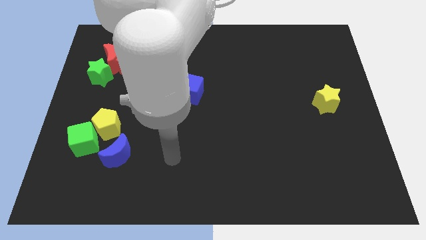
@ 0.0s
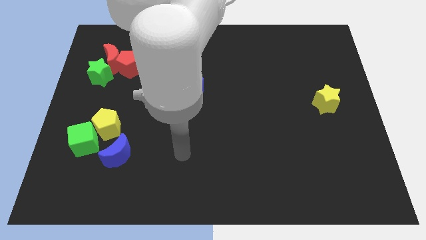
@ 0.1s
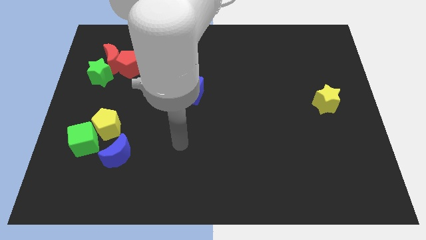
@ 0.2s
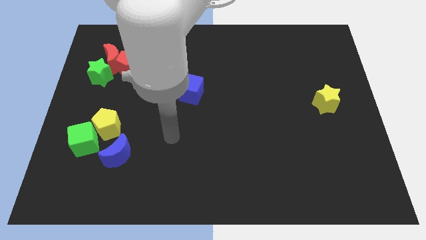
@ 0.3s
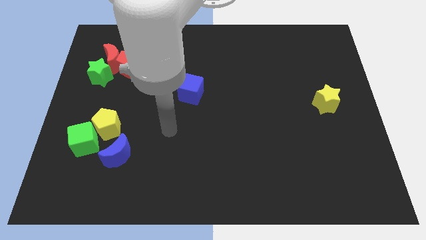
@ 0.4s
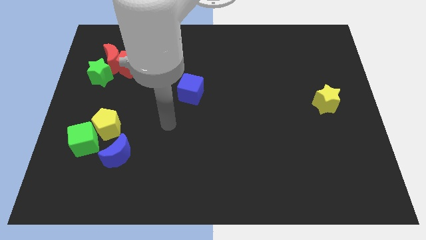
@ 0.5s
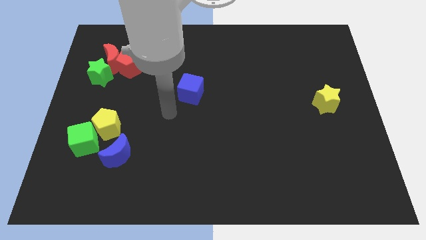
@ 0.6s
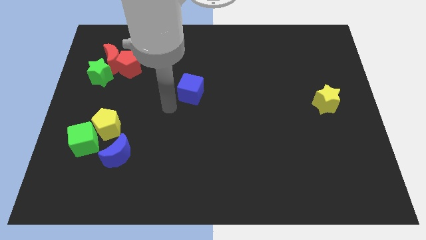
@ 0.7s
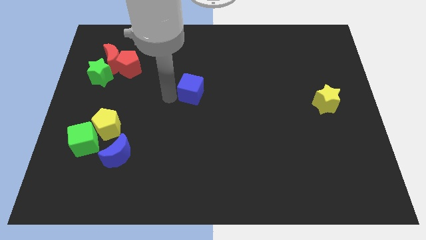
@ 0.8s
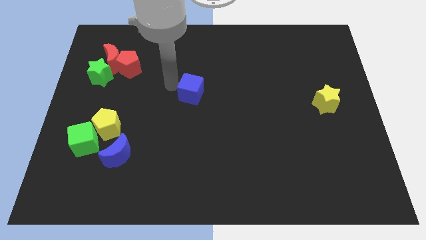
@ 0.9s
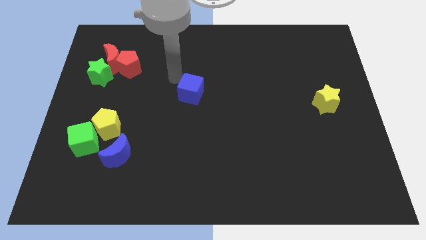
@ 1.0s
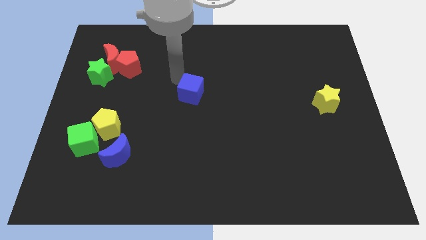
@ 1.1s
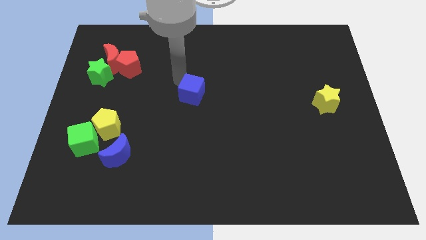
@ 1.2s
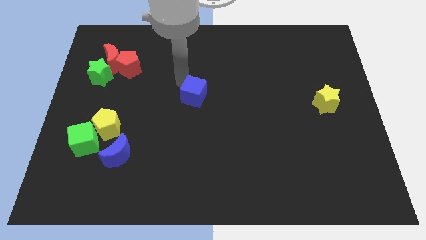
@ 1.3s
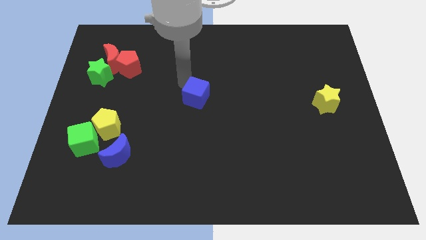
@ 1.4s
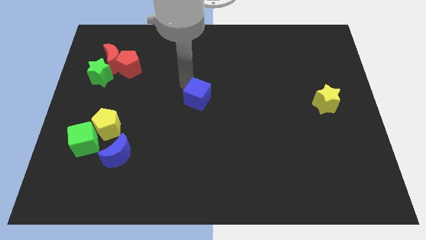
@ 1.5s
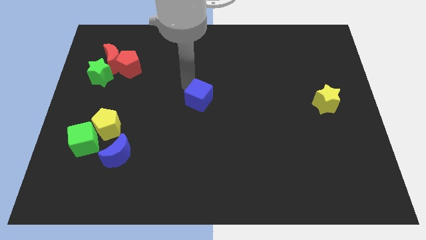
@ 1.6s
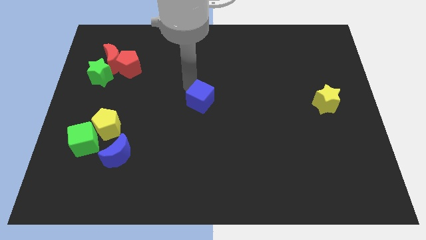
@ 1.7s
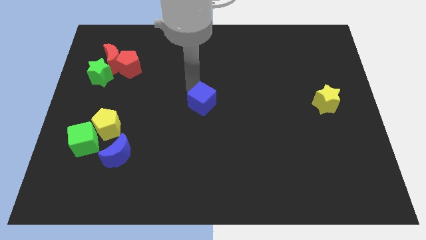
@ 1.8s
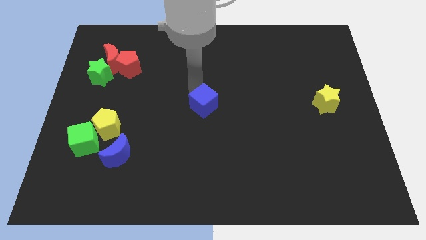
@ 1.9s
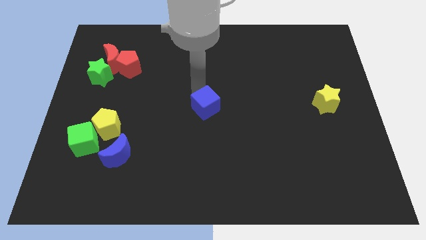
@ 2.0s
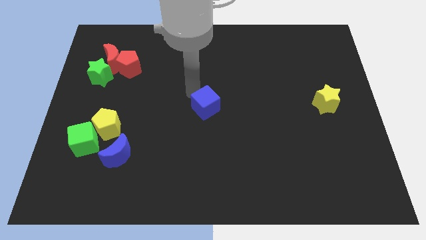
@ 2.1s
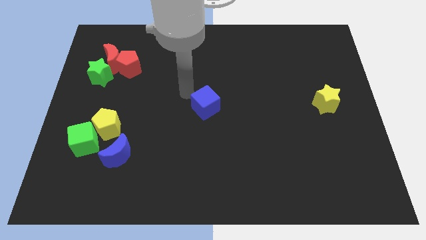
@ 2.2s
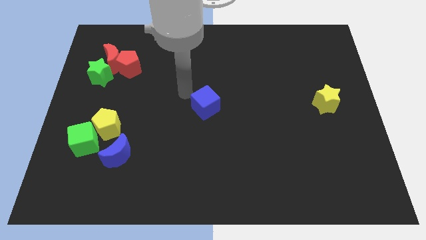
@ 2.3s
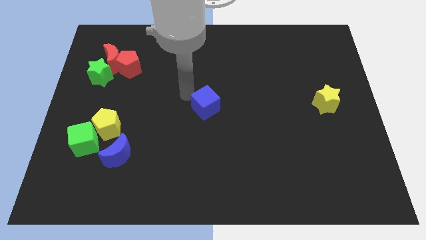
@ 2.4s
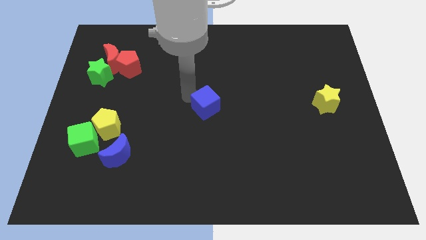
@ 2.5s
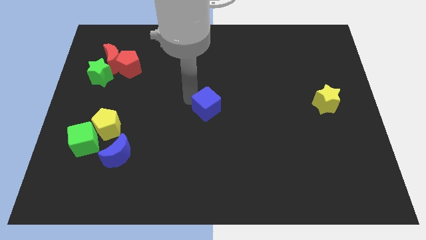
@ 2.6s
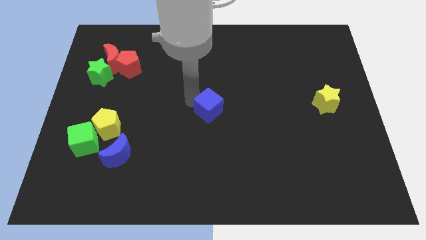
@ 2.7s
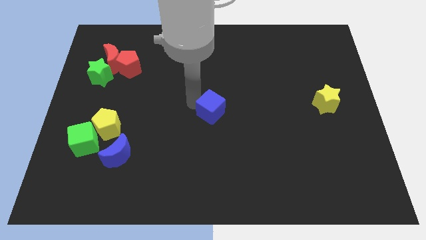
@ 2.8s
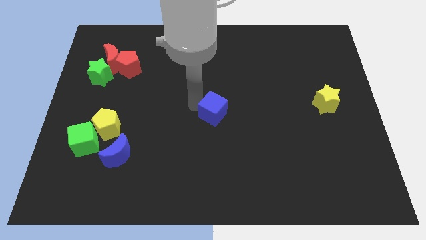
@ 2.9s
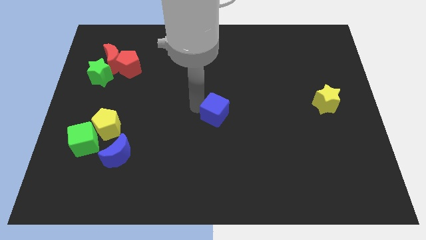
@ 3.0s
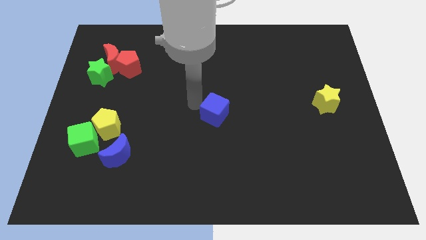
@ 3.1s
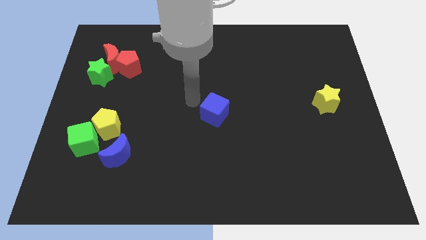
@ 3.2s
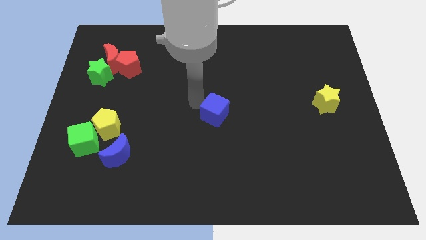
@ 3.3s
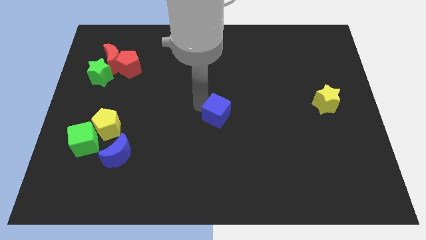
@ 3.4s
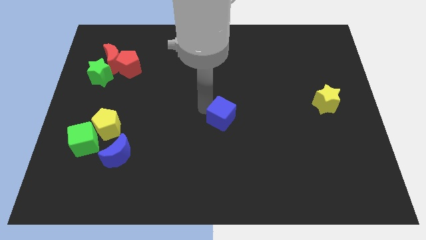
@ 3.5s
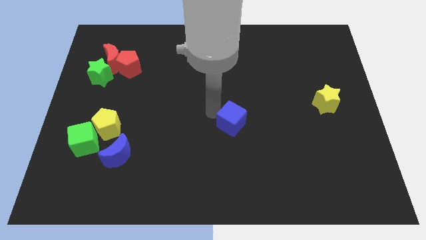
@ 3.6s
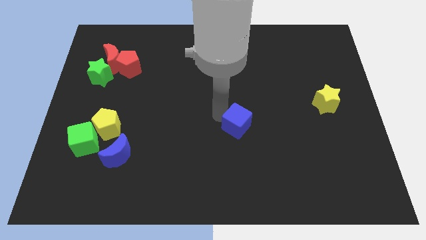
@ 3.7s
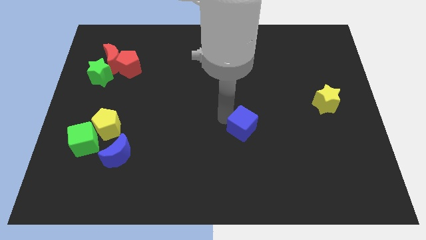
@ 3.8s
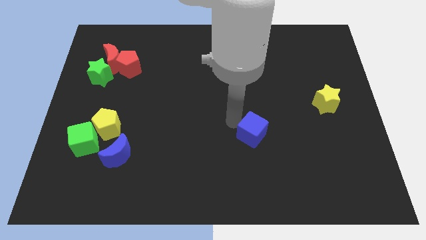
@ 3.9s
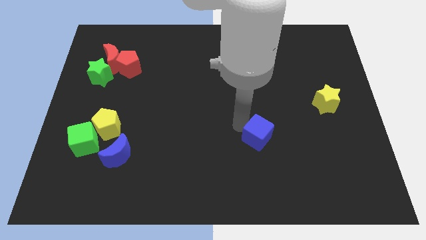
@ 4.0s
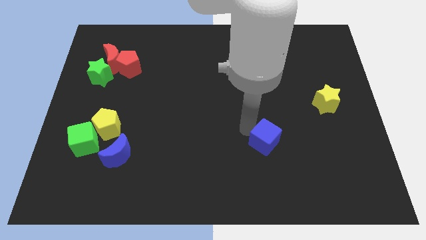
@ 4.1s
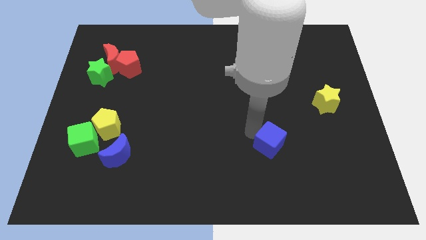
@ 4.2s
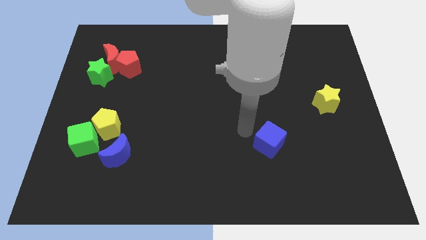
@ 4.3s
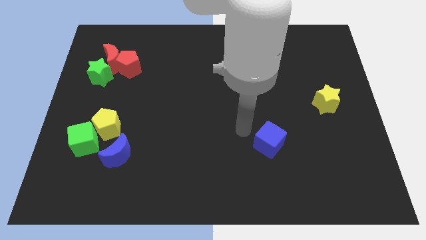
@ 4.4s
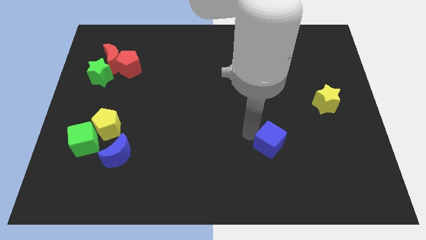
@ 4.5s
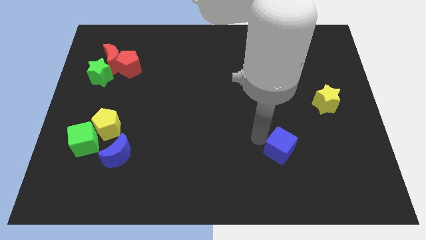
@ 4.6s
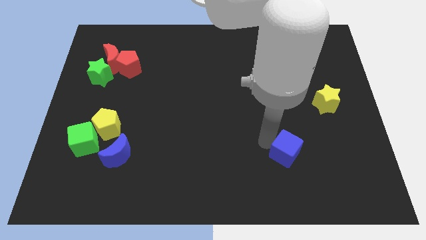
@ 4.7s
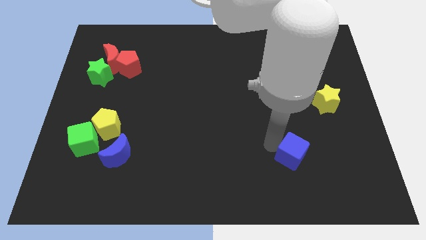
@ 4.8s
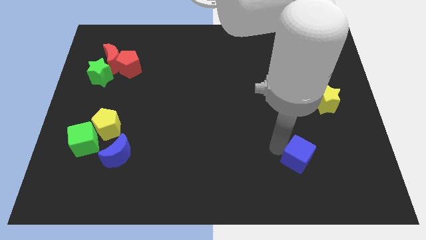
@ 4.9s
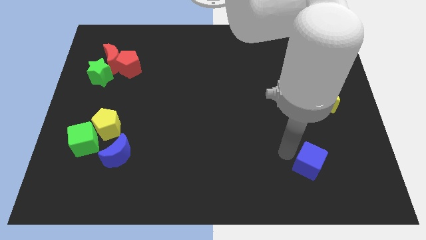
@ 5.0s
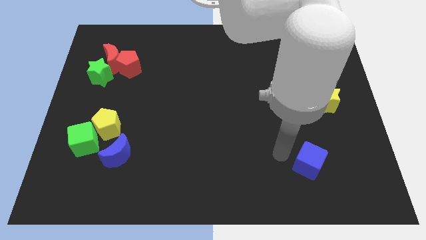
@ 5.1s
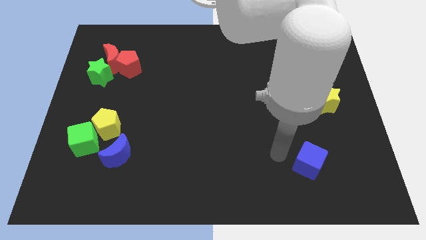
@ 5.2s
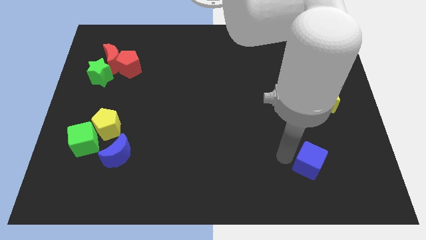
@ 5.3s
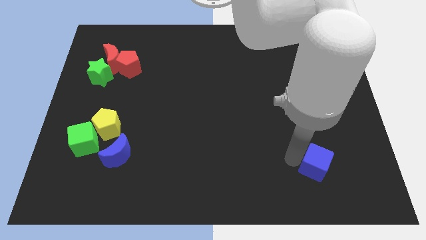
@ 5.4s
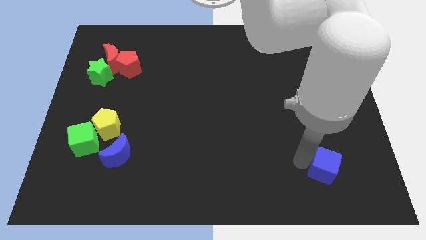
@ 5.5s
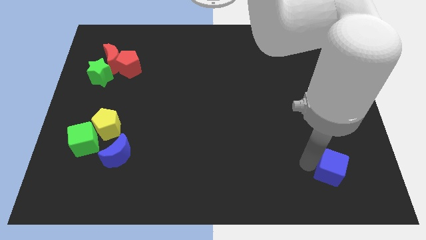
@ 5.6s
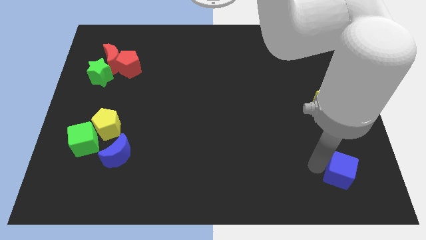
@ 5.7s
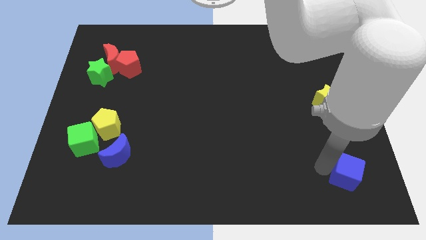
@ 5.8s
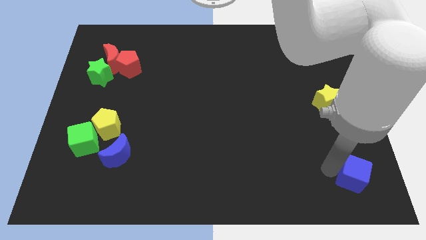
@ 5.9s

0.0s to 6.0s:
slide the blue cube to the bottom right
